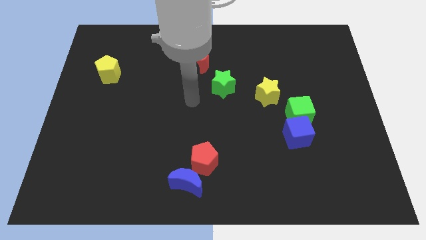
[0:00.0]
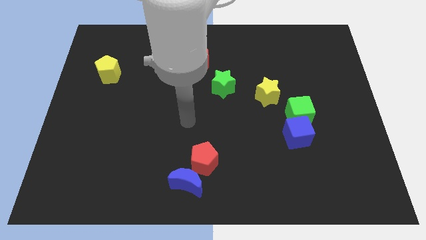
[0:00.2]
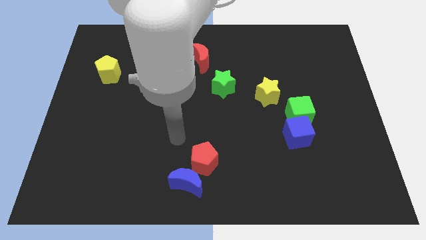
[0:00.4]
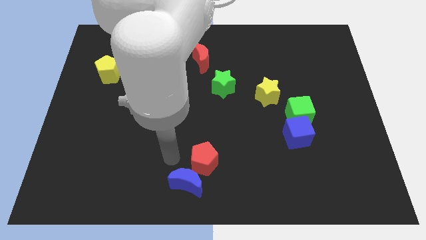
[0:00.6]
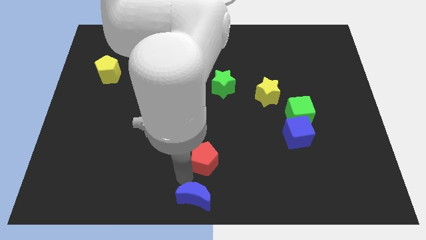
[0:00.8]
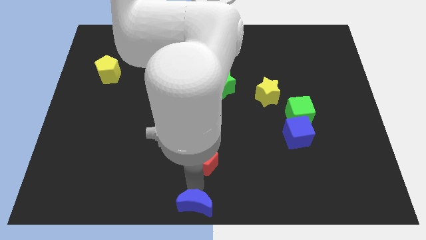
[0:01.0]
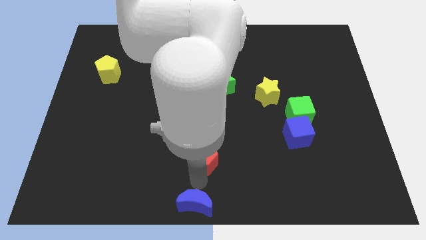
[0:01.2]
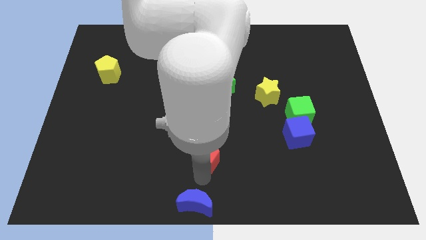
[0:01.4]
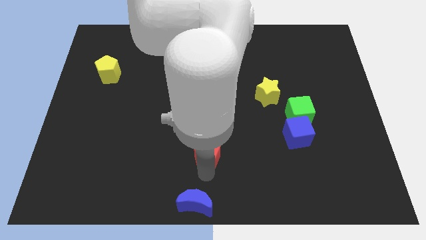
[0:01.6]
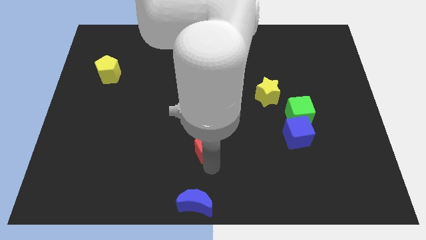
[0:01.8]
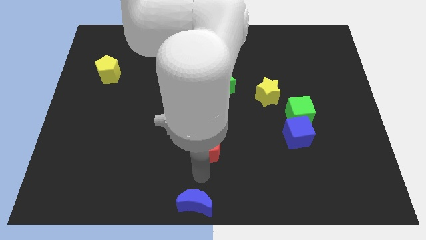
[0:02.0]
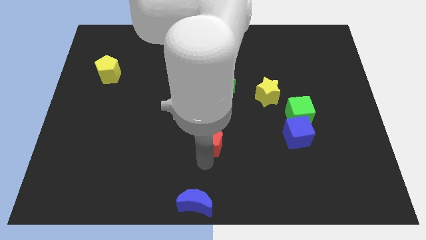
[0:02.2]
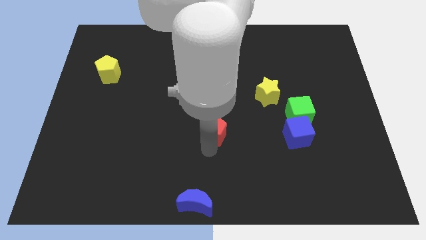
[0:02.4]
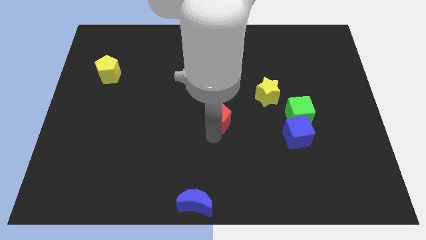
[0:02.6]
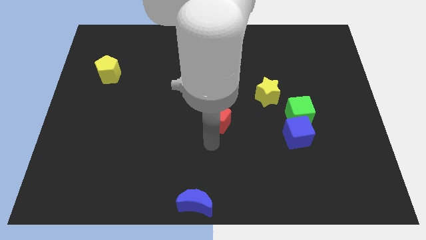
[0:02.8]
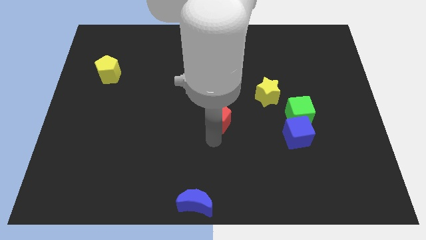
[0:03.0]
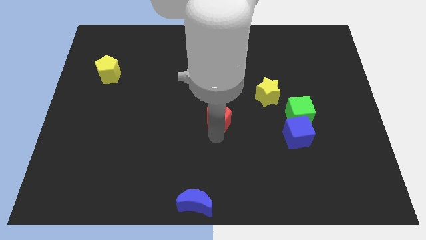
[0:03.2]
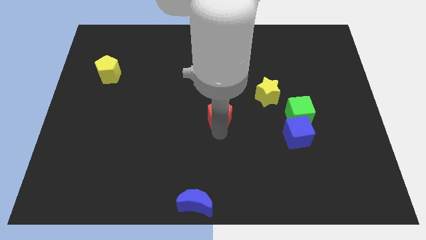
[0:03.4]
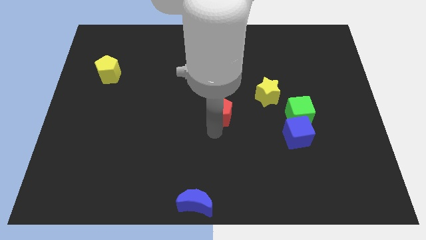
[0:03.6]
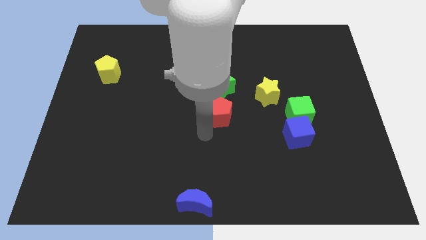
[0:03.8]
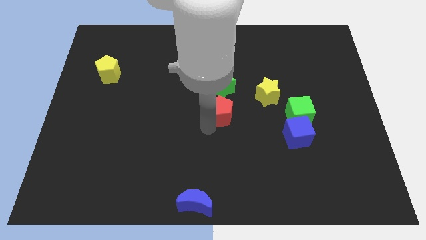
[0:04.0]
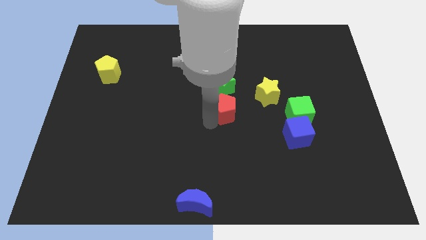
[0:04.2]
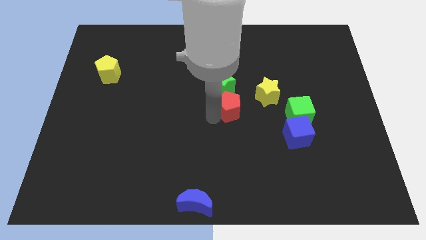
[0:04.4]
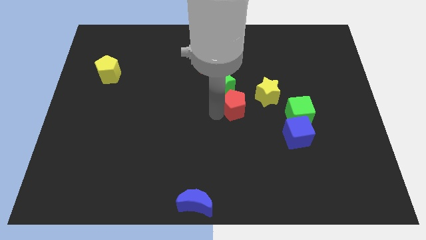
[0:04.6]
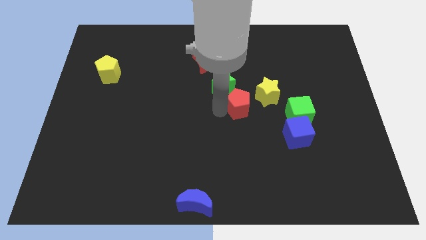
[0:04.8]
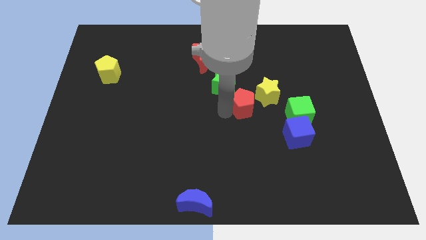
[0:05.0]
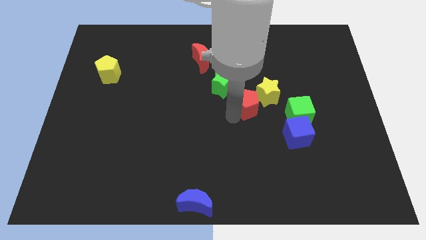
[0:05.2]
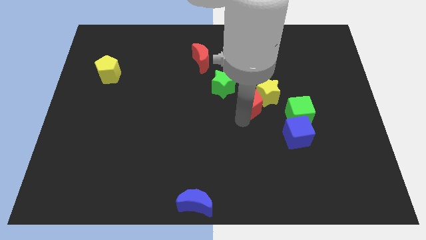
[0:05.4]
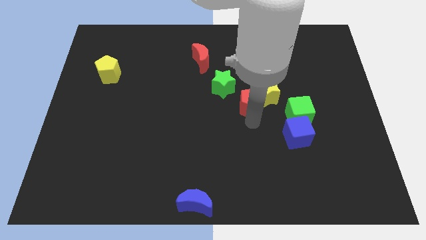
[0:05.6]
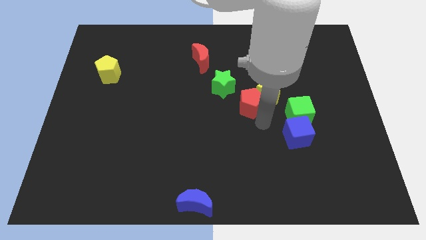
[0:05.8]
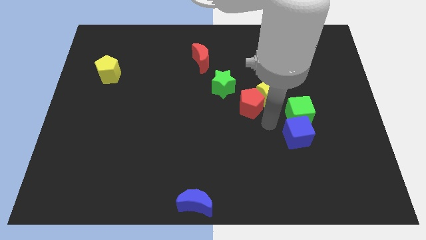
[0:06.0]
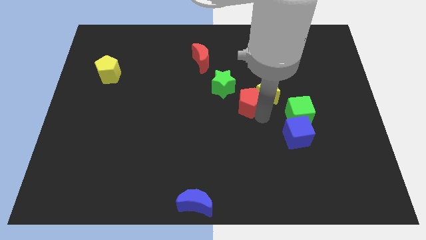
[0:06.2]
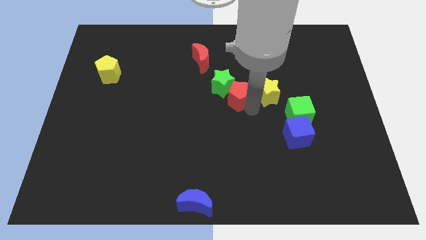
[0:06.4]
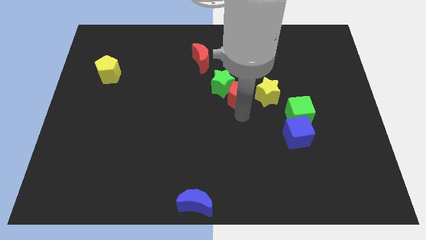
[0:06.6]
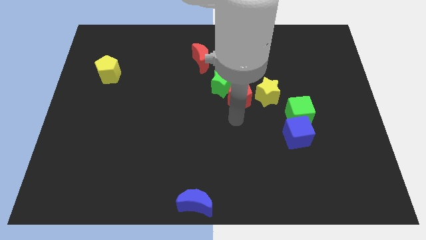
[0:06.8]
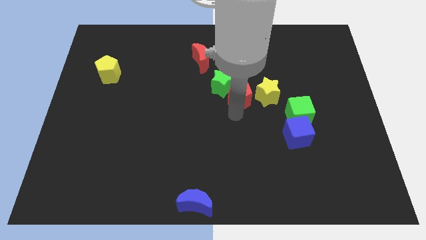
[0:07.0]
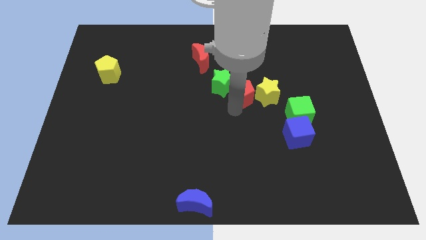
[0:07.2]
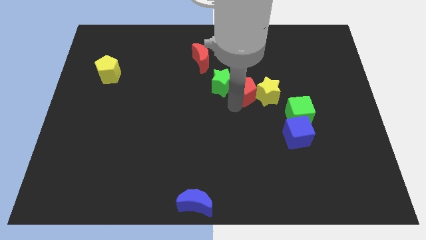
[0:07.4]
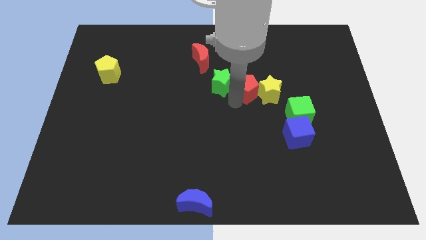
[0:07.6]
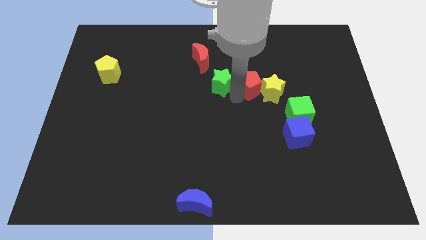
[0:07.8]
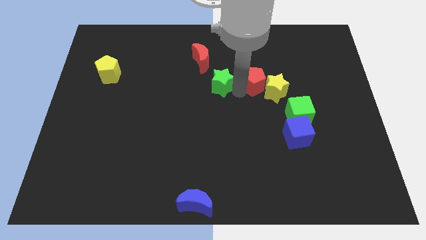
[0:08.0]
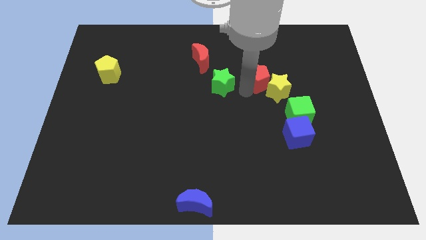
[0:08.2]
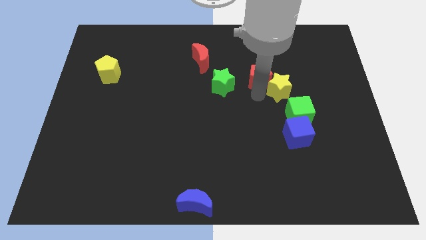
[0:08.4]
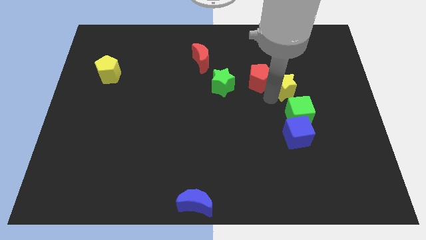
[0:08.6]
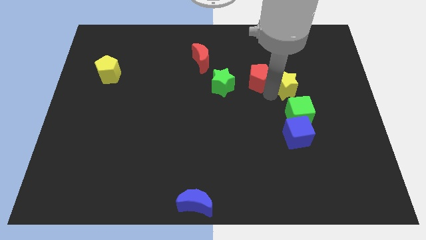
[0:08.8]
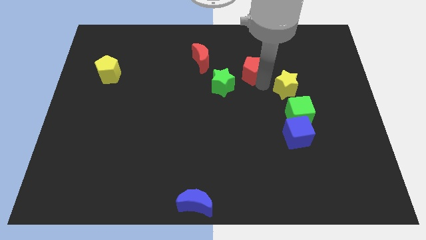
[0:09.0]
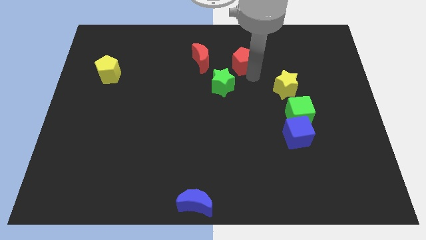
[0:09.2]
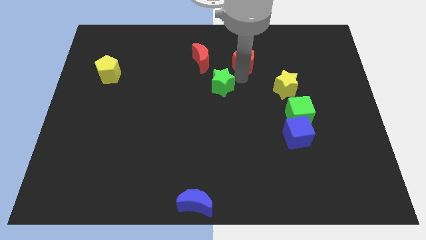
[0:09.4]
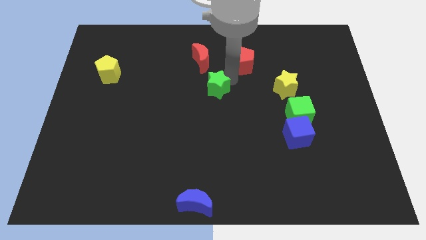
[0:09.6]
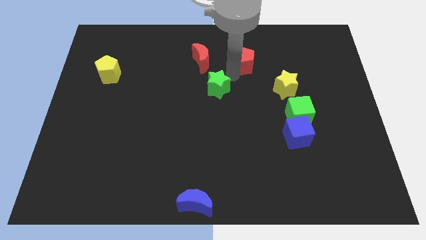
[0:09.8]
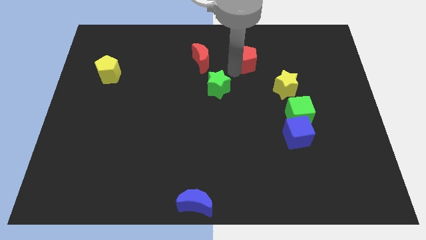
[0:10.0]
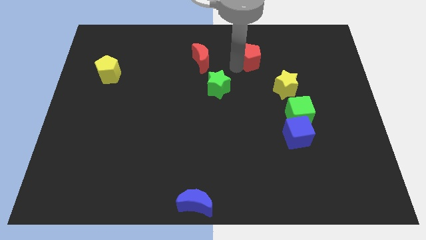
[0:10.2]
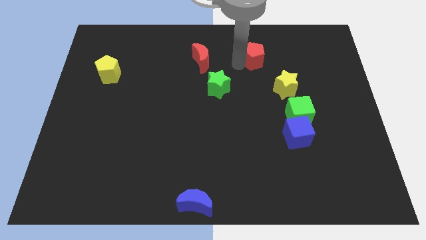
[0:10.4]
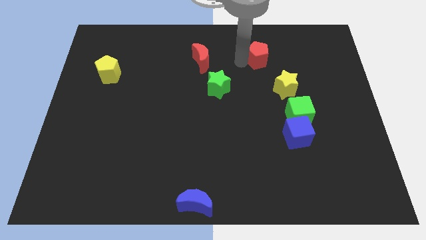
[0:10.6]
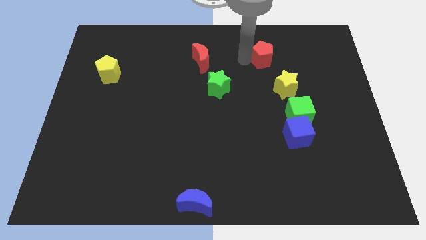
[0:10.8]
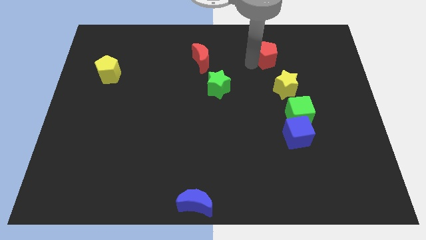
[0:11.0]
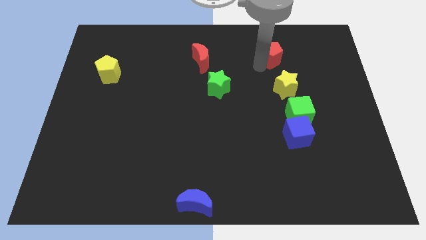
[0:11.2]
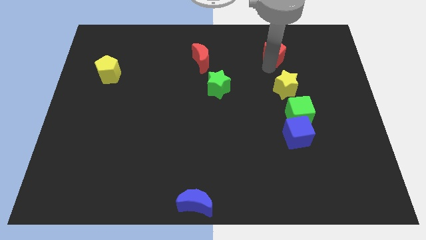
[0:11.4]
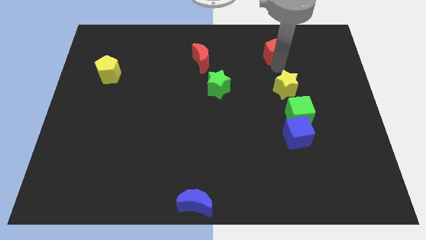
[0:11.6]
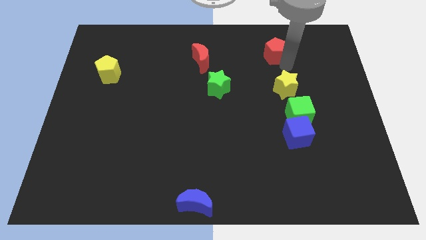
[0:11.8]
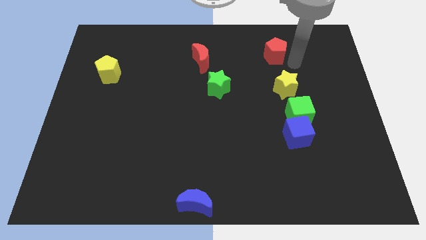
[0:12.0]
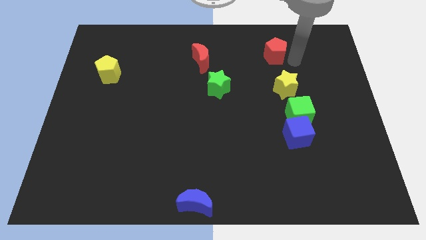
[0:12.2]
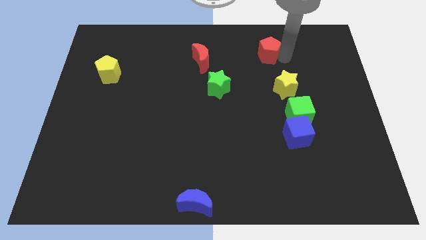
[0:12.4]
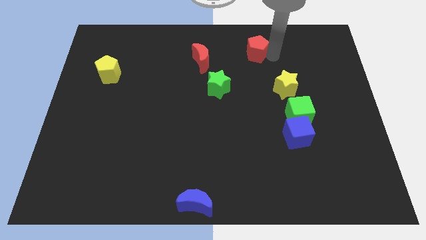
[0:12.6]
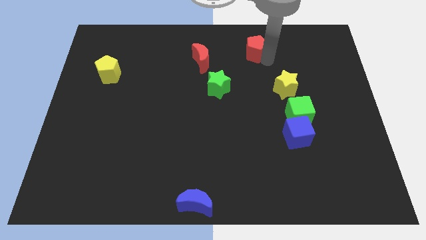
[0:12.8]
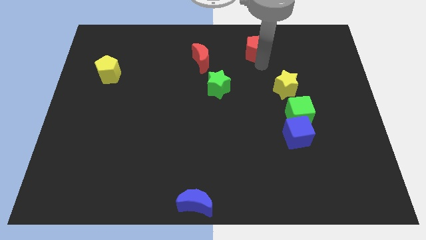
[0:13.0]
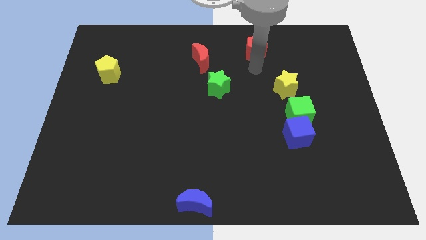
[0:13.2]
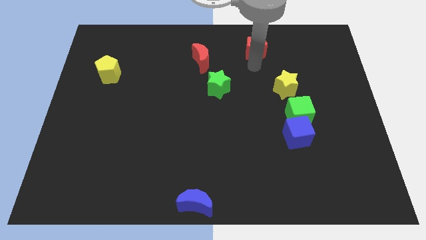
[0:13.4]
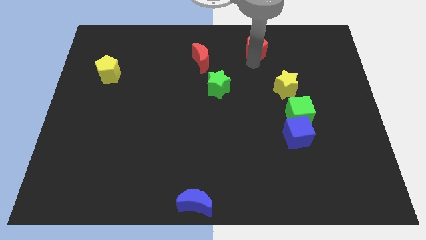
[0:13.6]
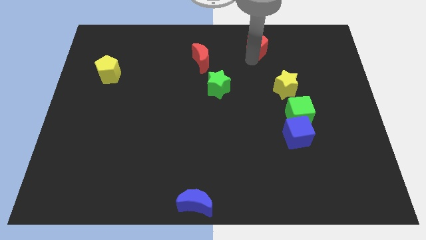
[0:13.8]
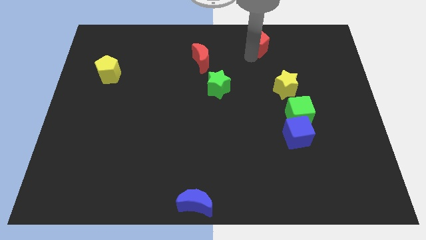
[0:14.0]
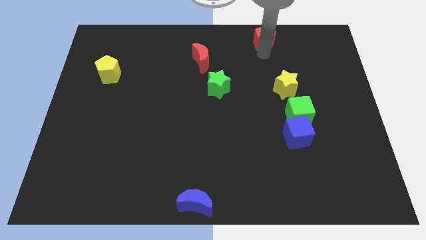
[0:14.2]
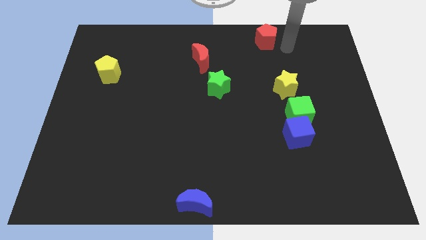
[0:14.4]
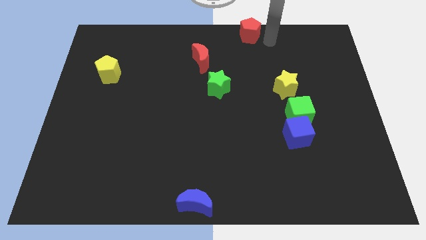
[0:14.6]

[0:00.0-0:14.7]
slide the red pentagon to the towards your base
